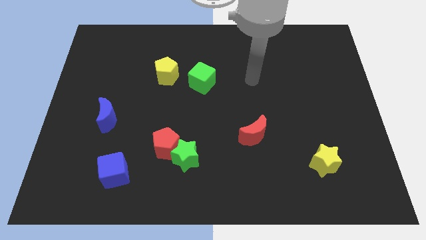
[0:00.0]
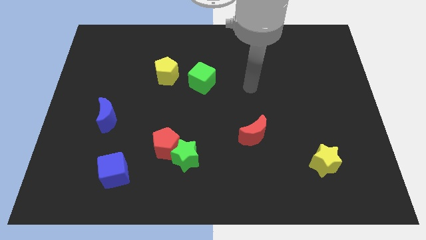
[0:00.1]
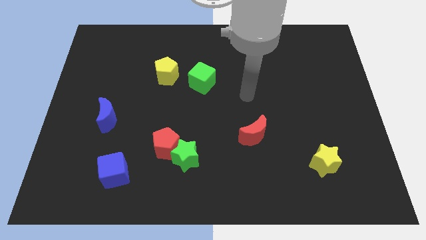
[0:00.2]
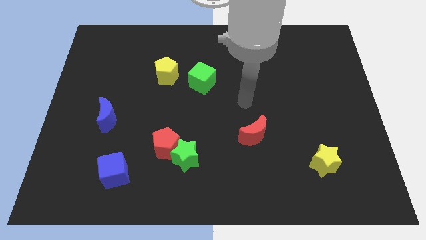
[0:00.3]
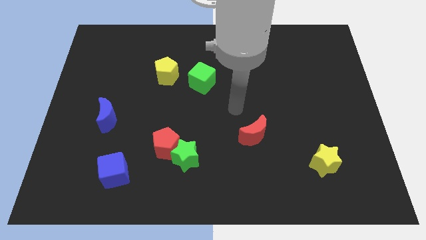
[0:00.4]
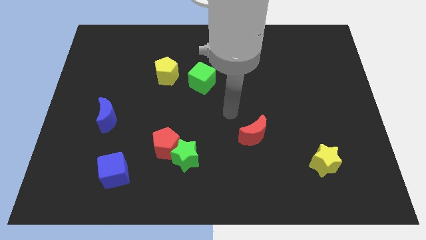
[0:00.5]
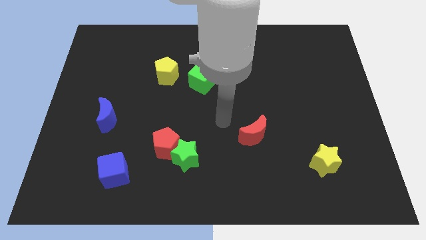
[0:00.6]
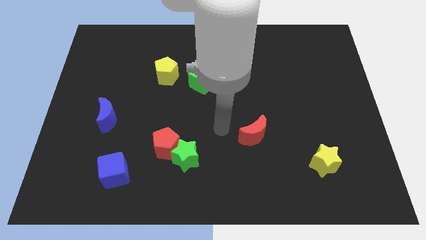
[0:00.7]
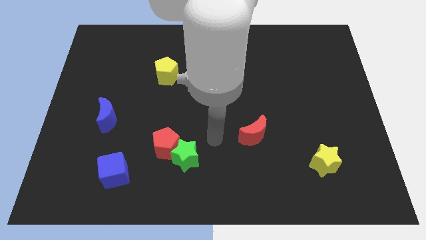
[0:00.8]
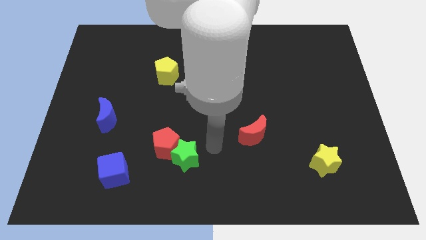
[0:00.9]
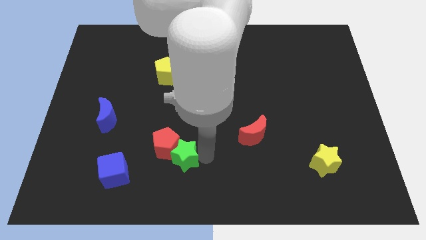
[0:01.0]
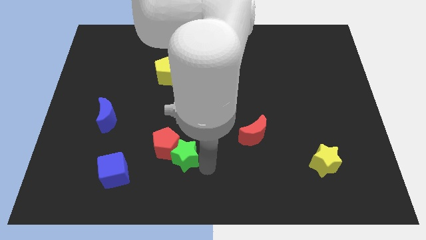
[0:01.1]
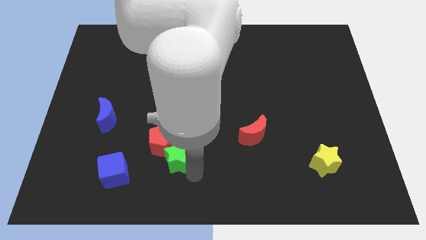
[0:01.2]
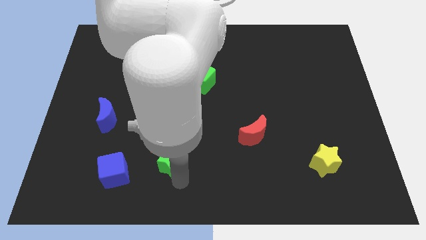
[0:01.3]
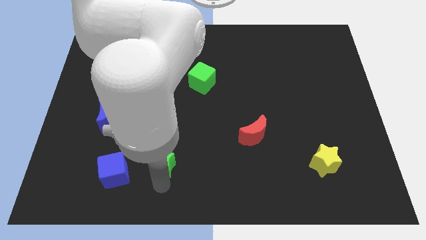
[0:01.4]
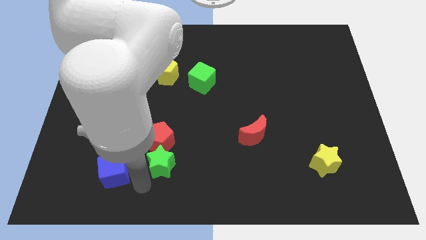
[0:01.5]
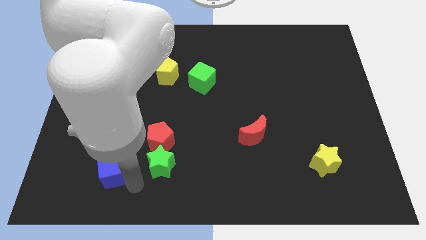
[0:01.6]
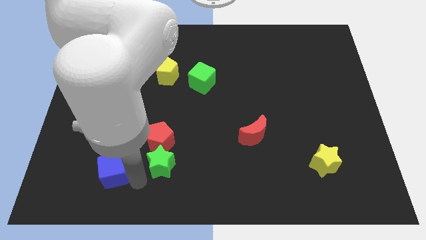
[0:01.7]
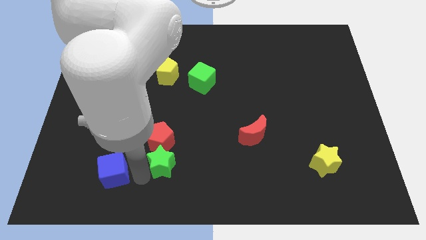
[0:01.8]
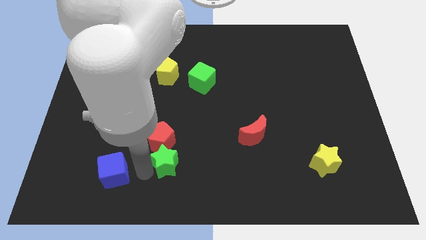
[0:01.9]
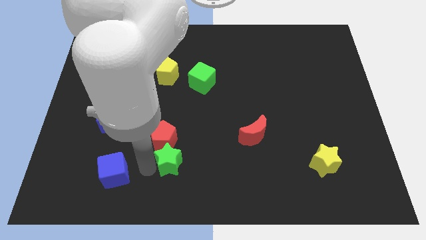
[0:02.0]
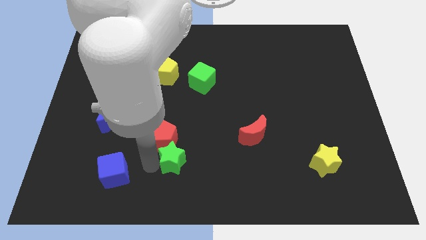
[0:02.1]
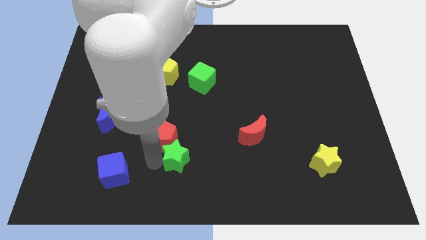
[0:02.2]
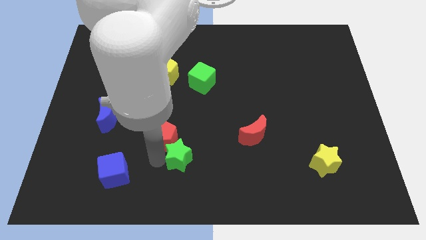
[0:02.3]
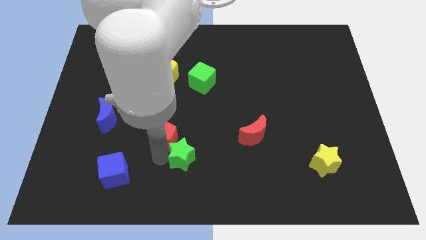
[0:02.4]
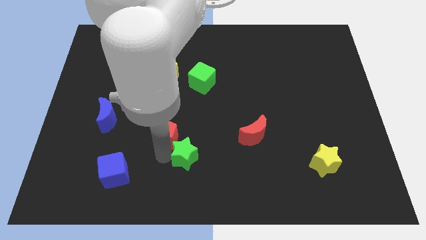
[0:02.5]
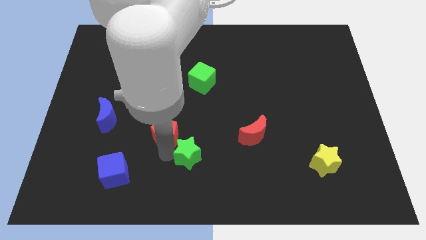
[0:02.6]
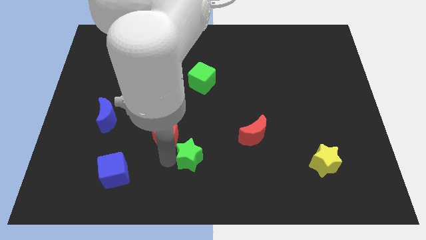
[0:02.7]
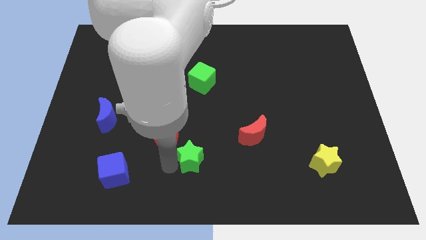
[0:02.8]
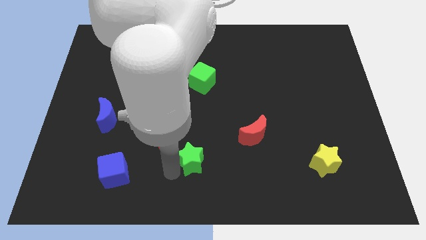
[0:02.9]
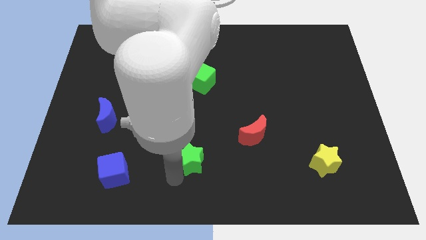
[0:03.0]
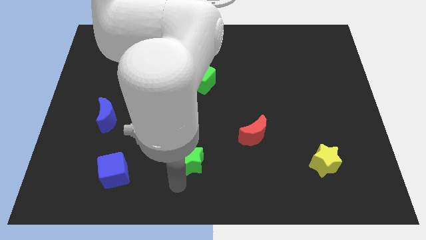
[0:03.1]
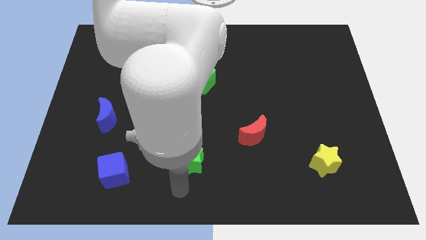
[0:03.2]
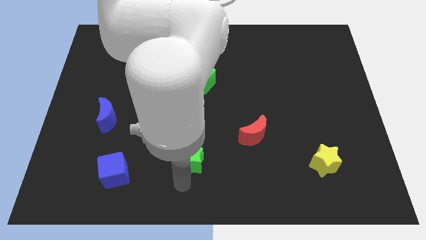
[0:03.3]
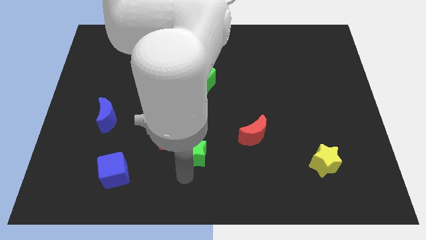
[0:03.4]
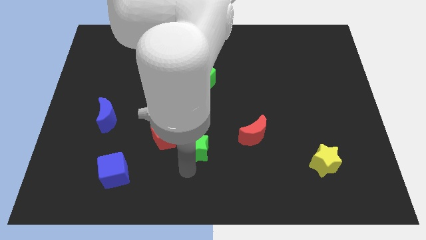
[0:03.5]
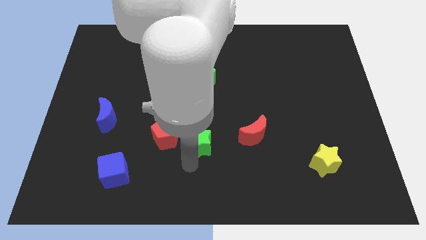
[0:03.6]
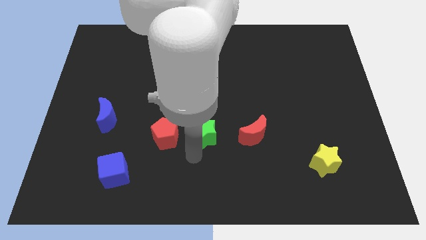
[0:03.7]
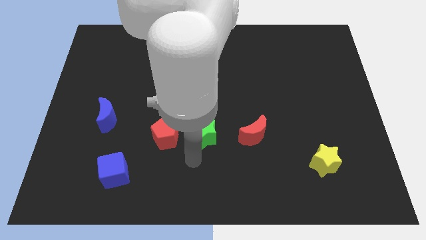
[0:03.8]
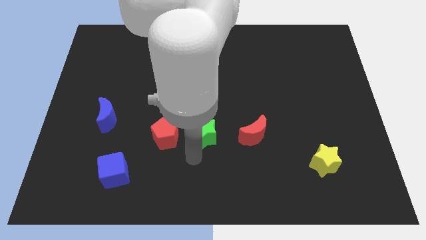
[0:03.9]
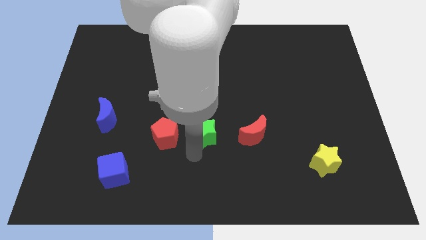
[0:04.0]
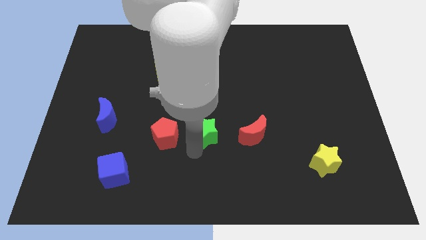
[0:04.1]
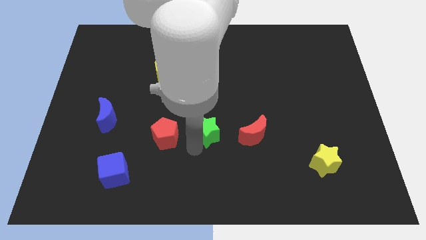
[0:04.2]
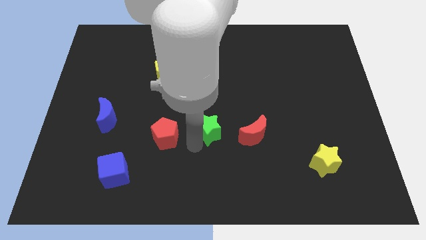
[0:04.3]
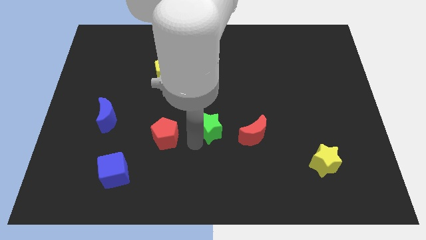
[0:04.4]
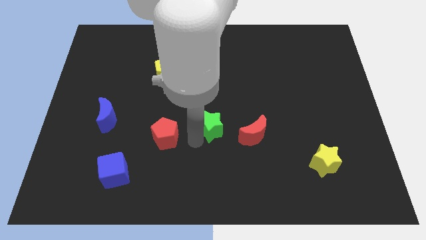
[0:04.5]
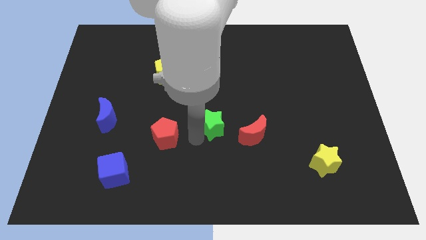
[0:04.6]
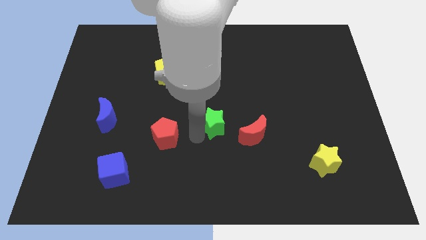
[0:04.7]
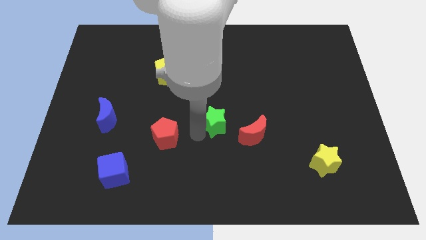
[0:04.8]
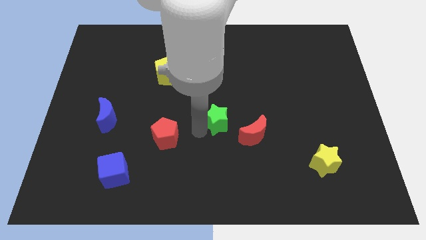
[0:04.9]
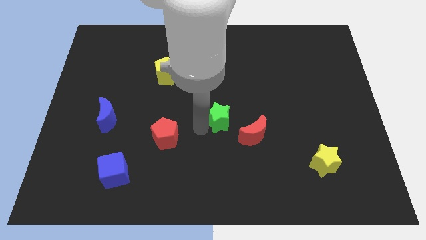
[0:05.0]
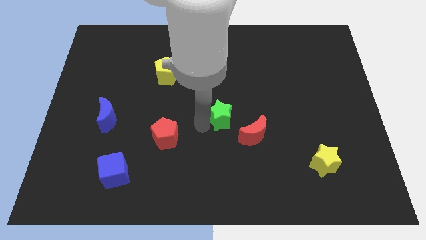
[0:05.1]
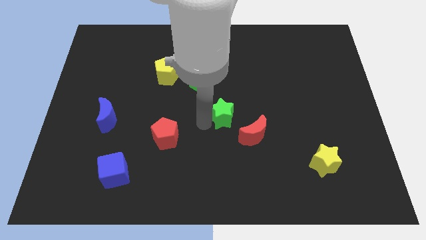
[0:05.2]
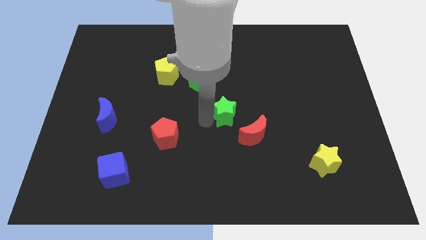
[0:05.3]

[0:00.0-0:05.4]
move the green star diagonally down and to the right of the green cube

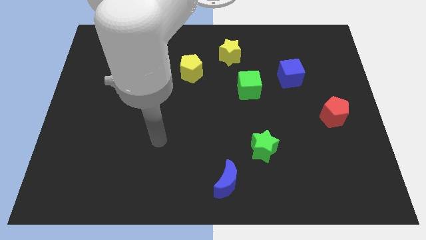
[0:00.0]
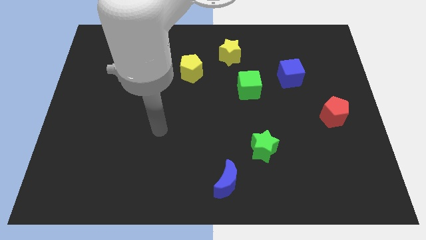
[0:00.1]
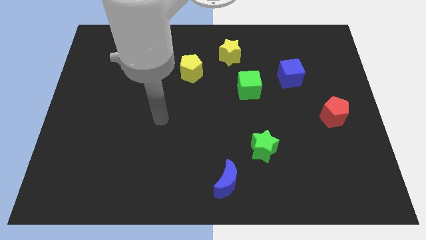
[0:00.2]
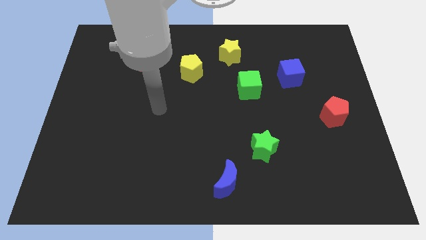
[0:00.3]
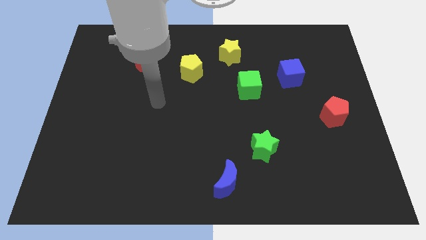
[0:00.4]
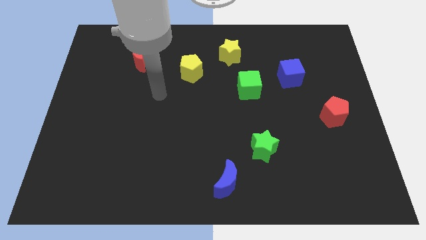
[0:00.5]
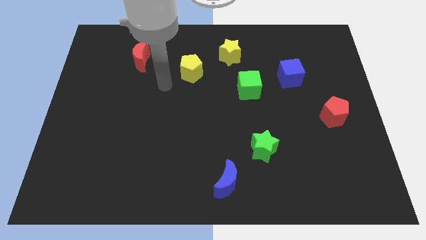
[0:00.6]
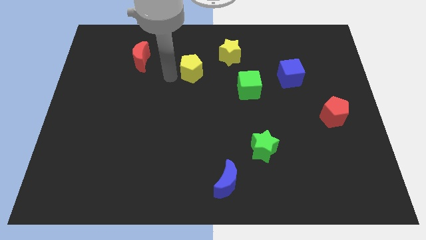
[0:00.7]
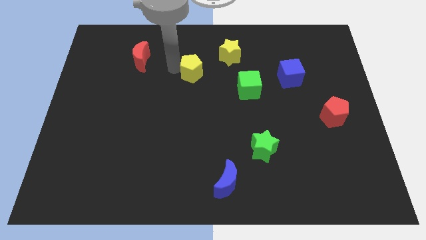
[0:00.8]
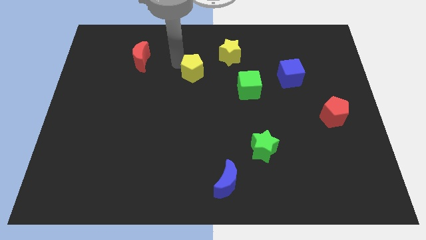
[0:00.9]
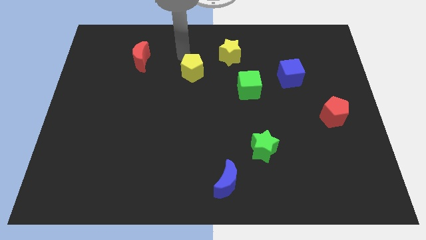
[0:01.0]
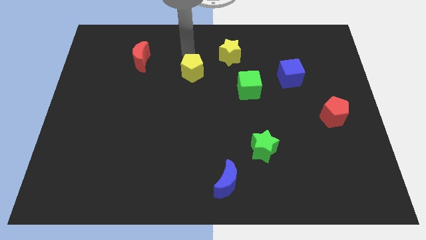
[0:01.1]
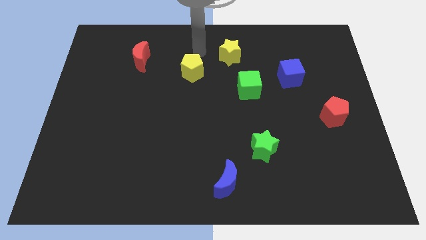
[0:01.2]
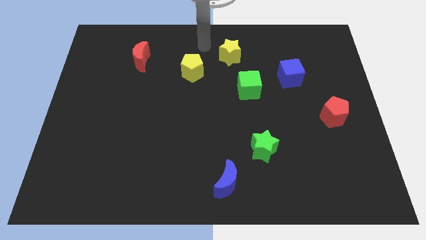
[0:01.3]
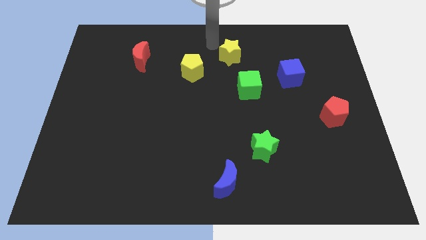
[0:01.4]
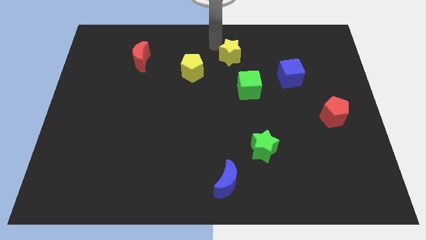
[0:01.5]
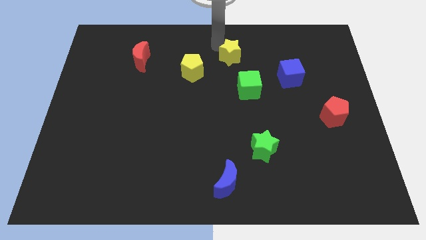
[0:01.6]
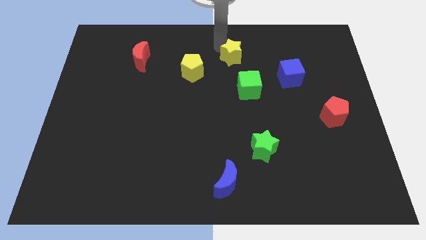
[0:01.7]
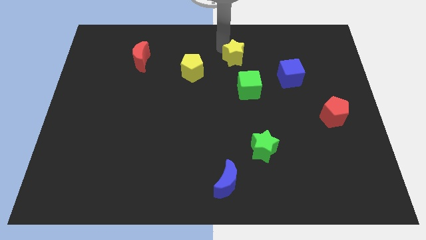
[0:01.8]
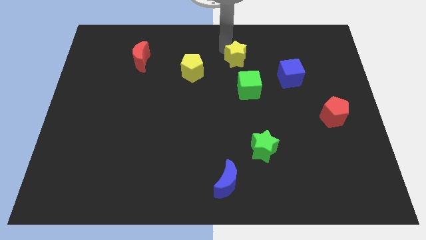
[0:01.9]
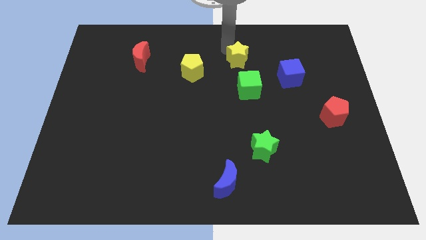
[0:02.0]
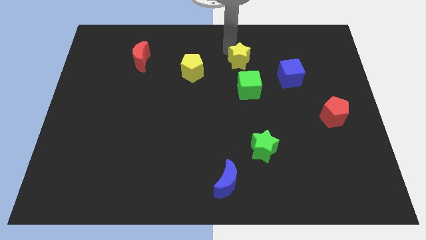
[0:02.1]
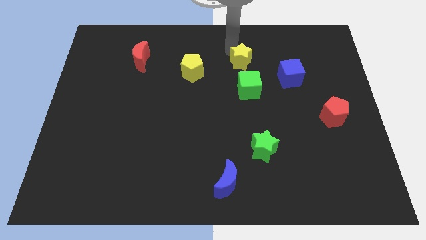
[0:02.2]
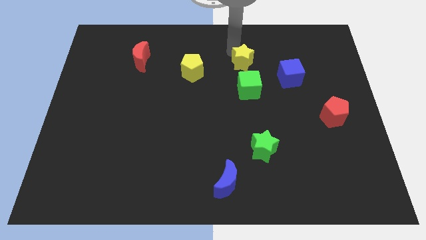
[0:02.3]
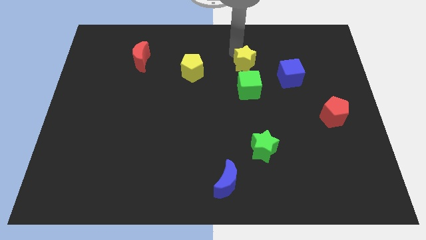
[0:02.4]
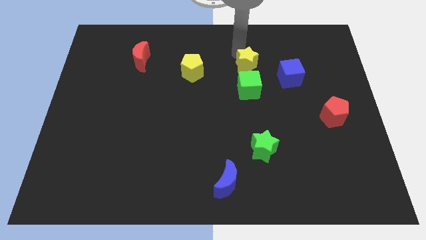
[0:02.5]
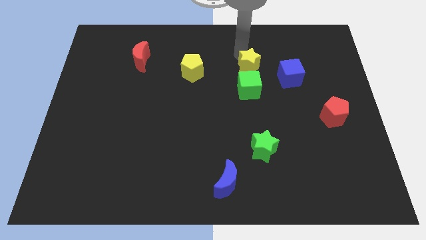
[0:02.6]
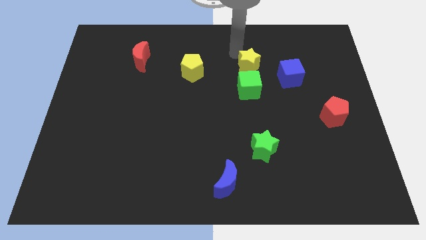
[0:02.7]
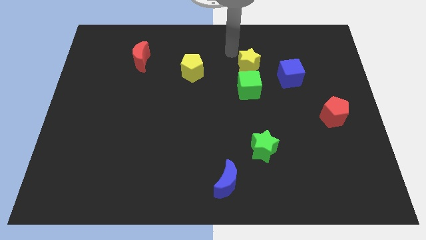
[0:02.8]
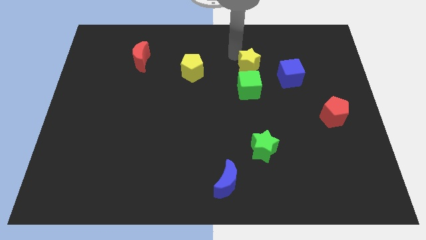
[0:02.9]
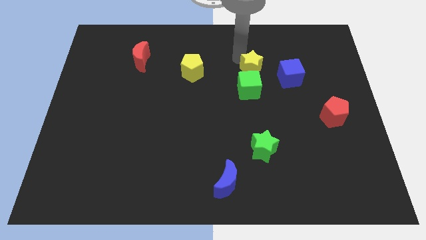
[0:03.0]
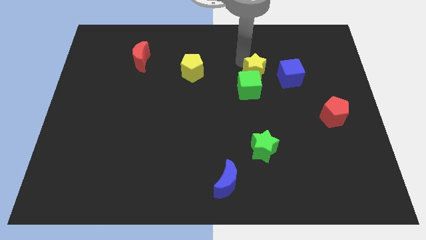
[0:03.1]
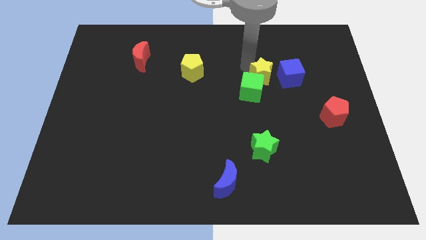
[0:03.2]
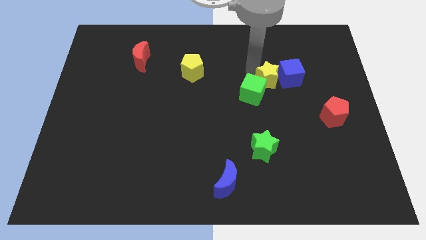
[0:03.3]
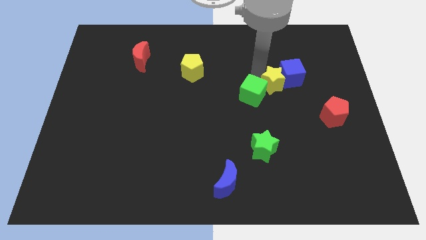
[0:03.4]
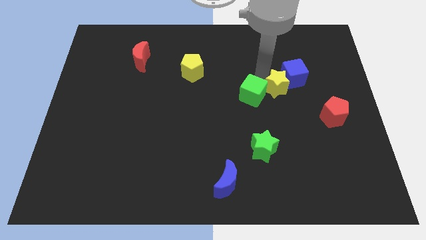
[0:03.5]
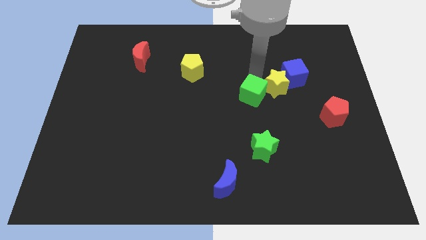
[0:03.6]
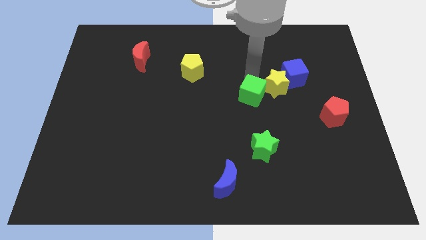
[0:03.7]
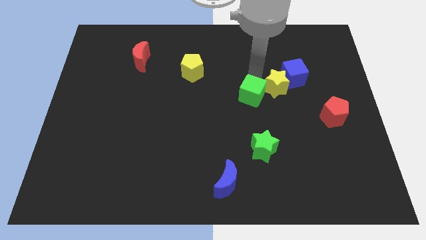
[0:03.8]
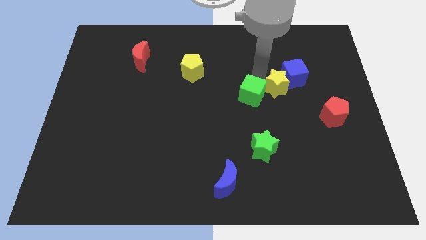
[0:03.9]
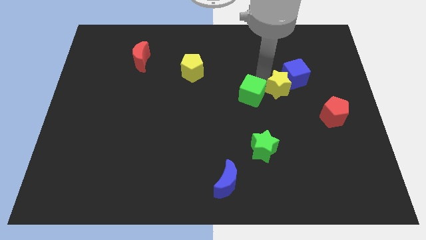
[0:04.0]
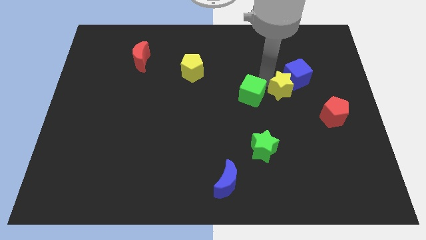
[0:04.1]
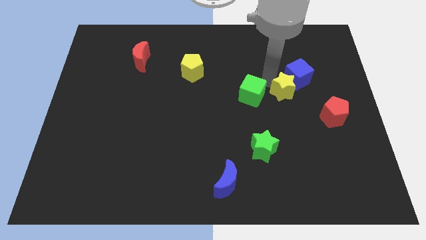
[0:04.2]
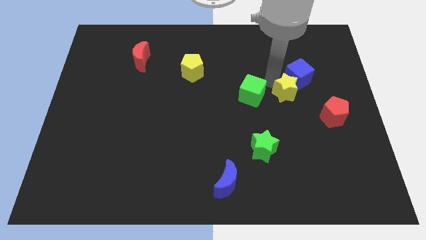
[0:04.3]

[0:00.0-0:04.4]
move the yellow star to the top left side of the red pentagon
